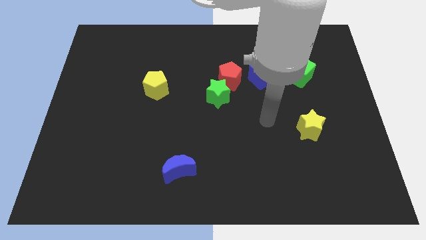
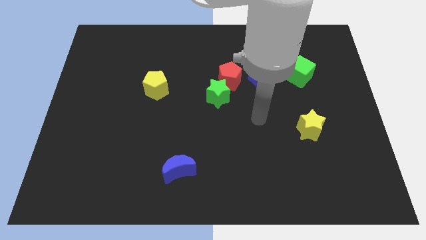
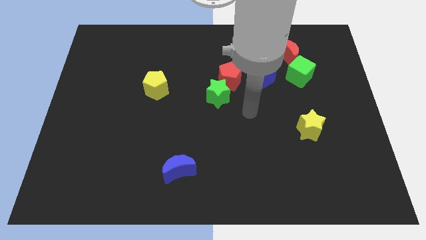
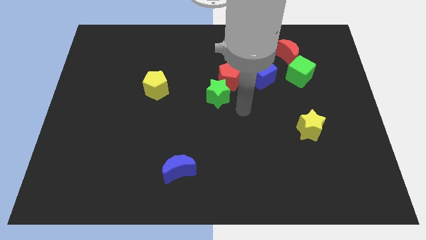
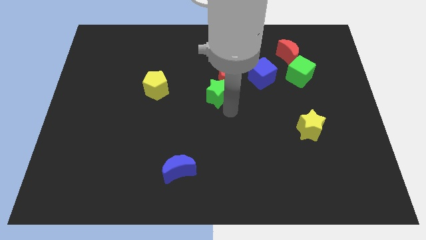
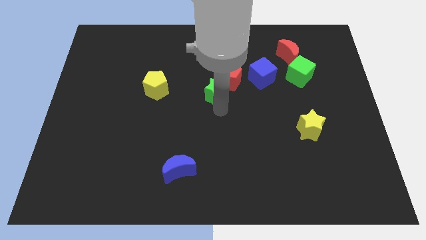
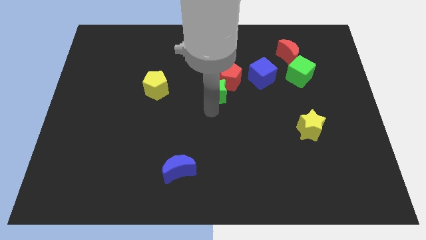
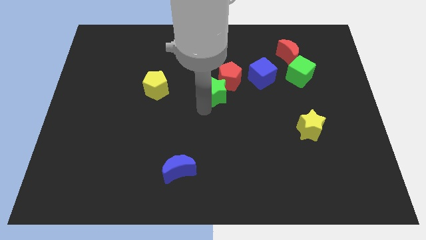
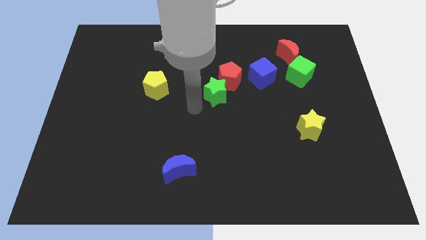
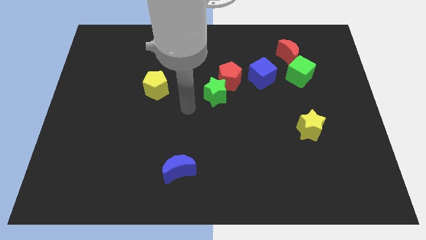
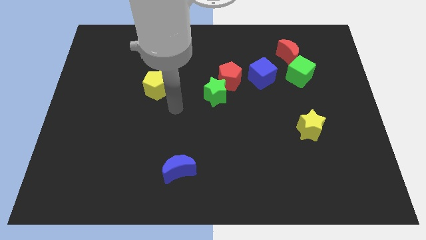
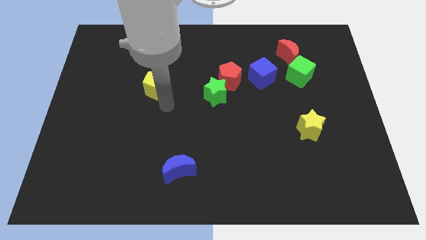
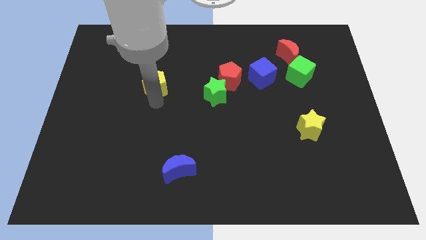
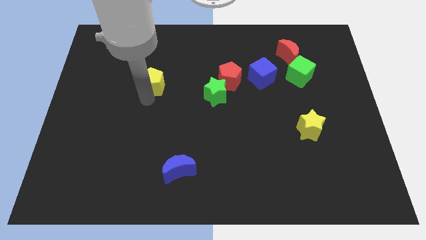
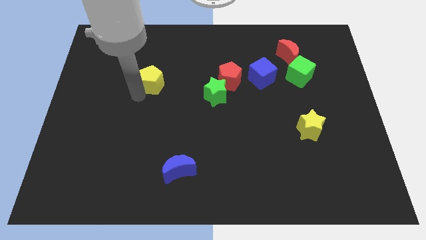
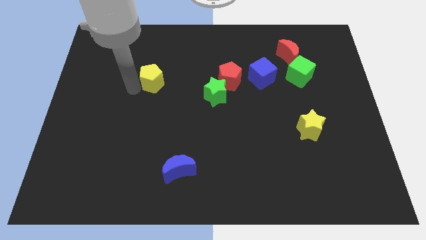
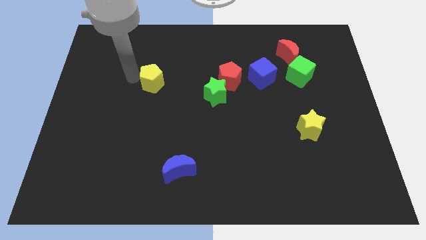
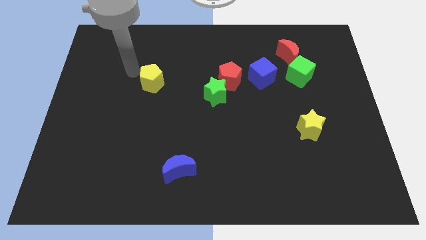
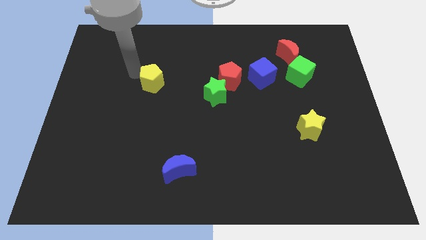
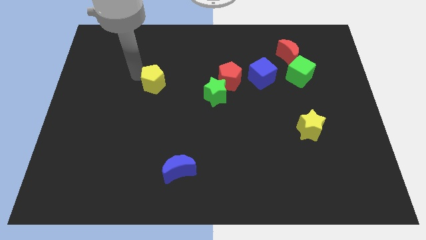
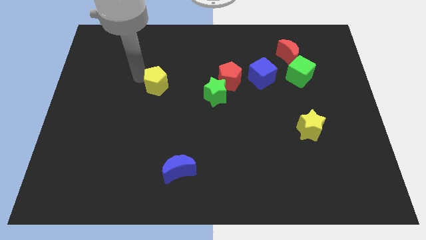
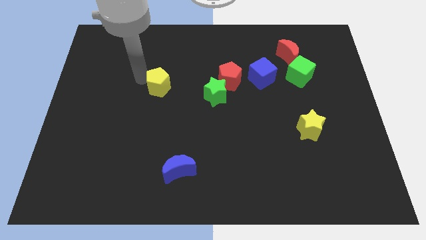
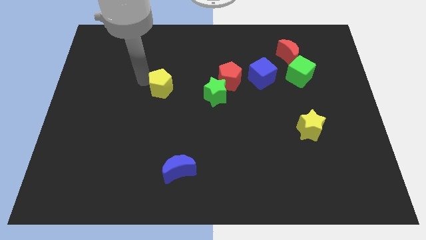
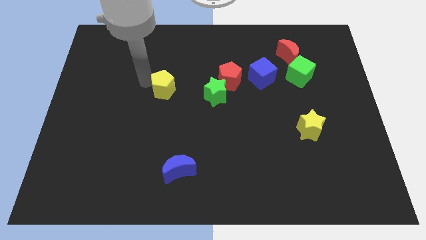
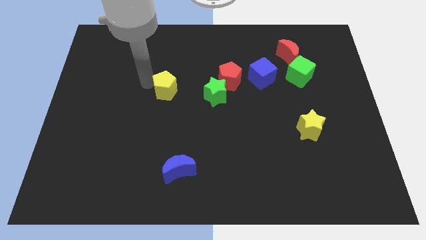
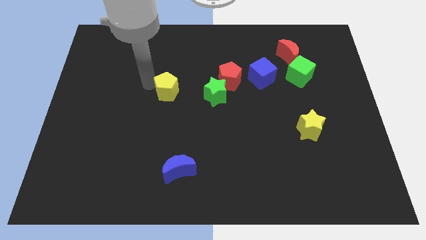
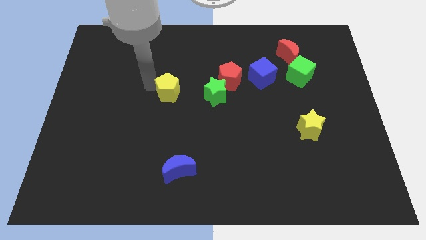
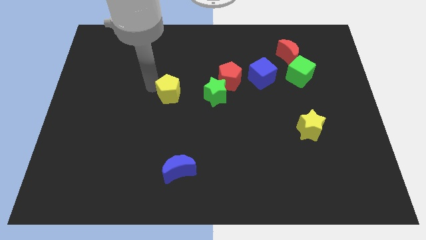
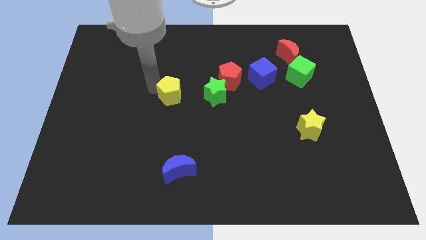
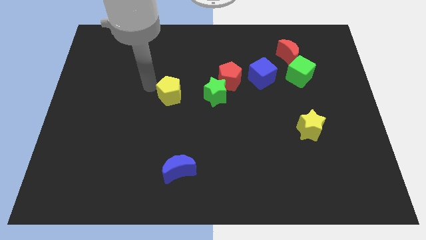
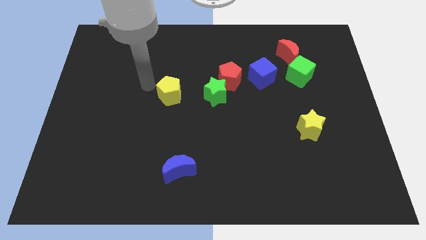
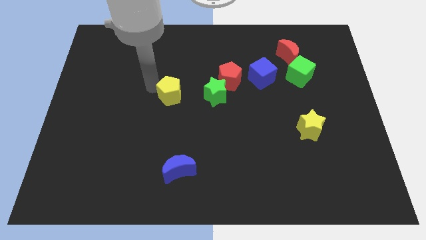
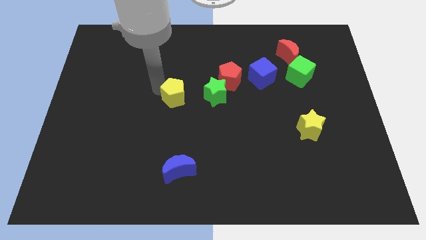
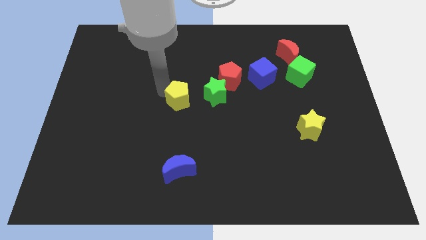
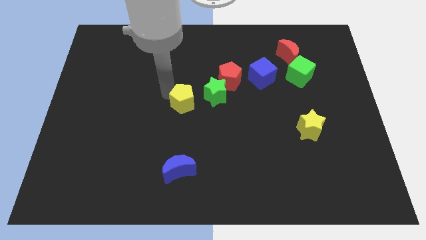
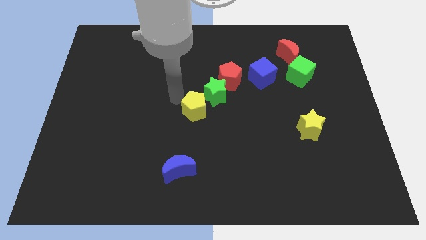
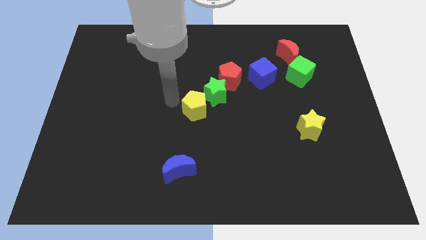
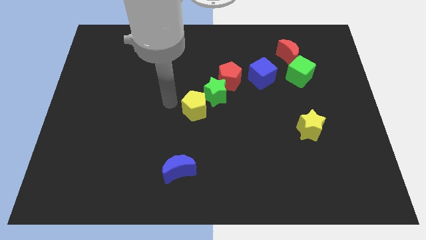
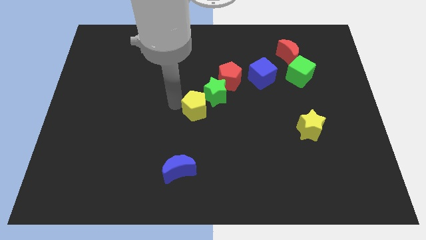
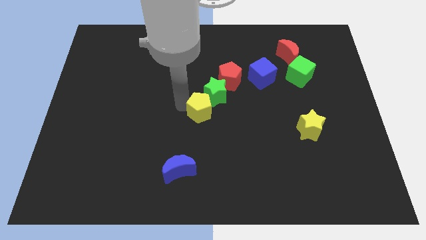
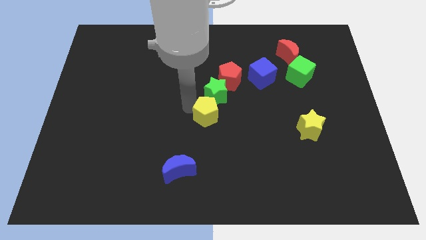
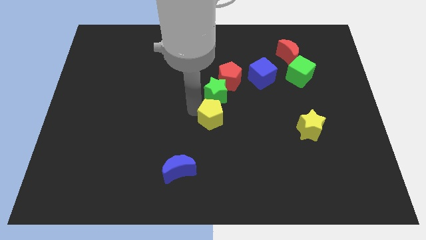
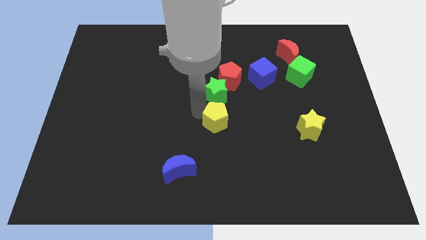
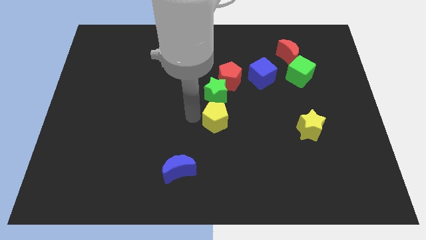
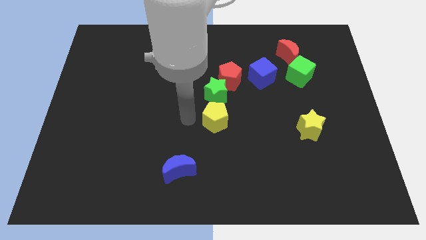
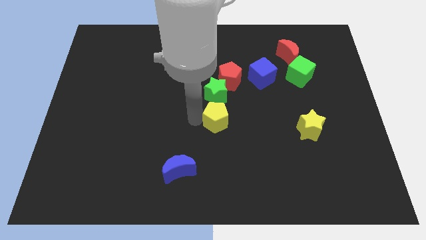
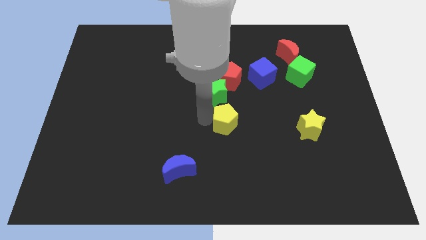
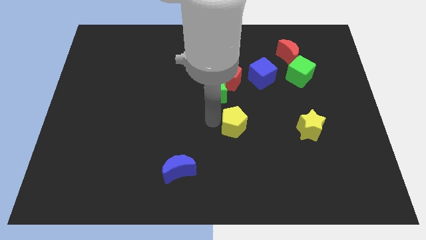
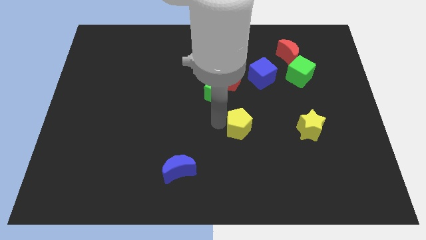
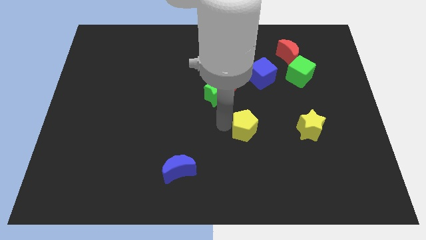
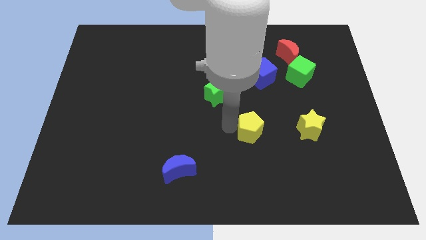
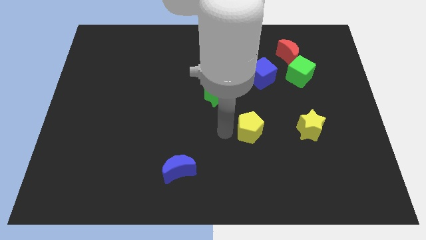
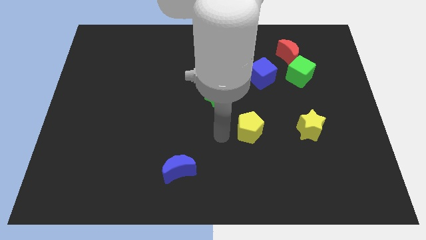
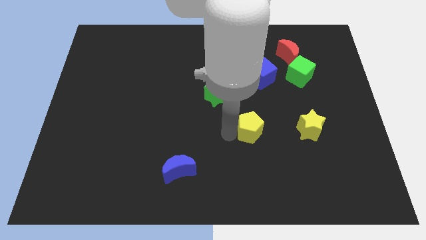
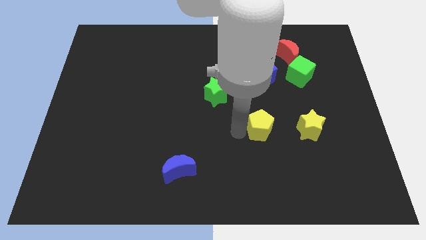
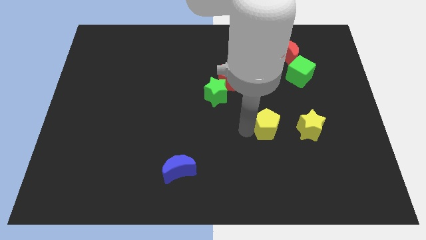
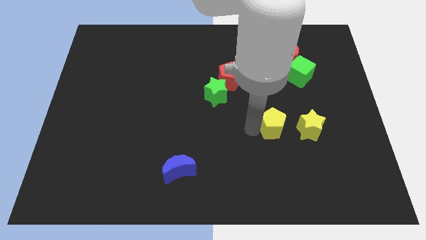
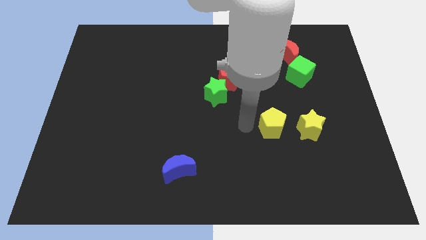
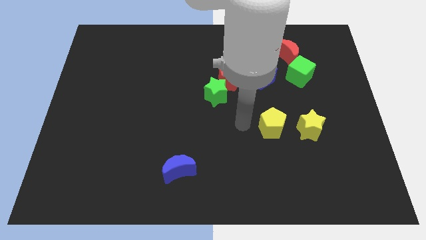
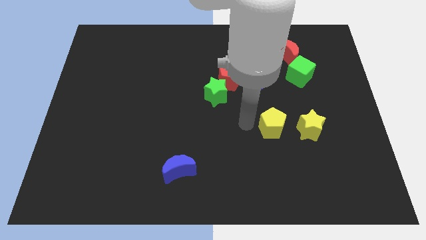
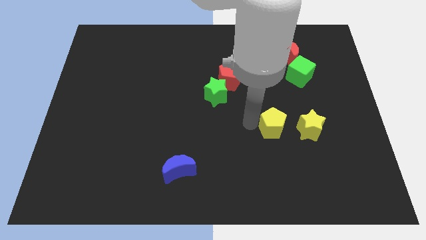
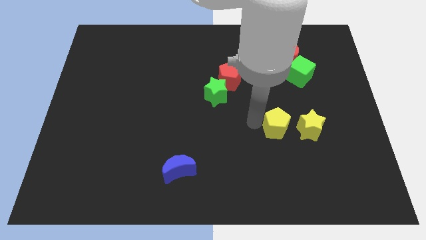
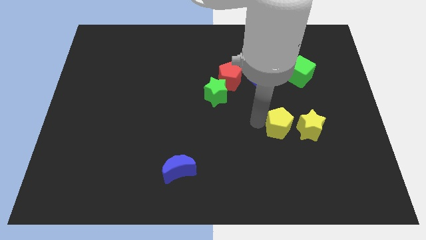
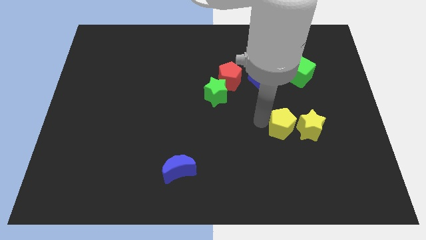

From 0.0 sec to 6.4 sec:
slide the yellow pentagon towards the yellow star

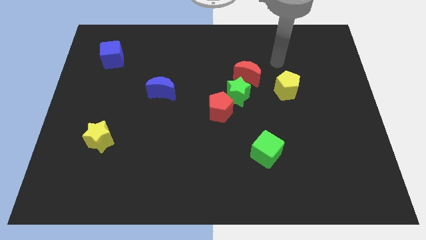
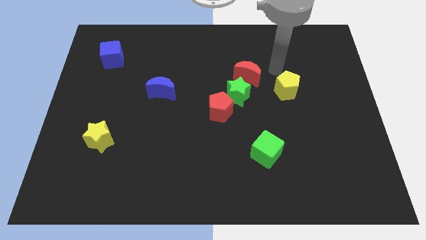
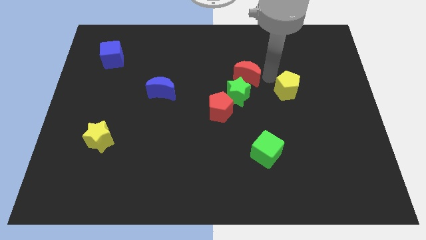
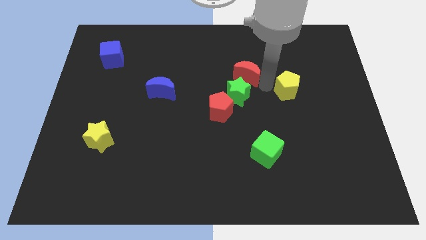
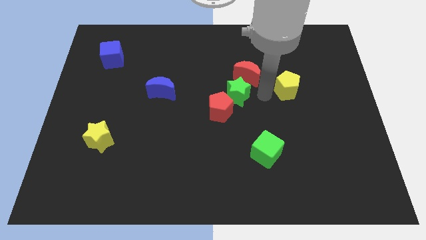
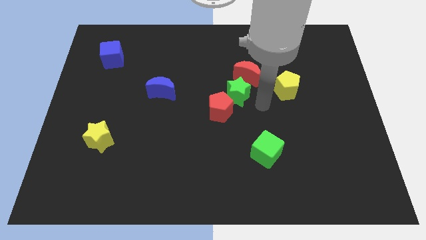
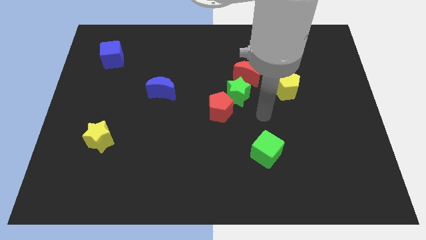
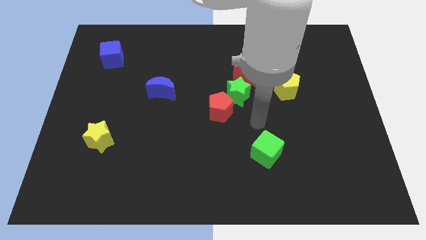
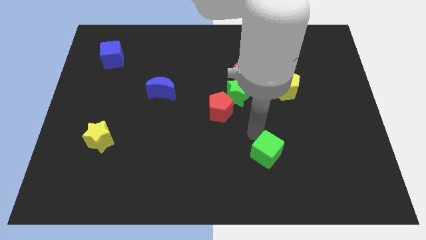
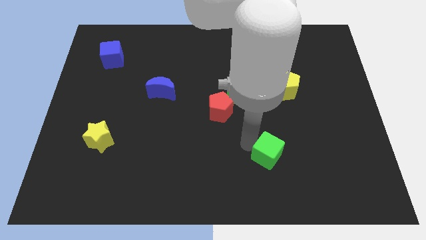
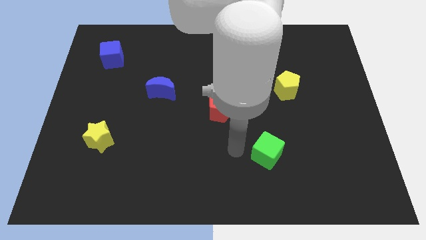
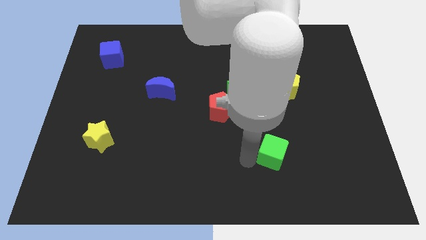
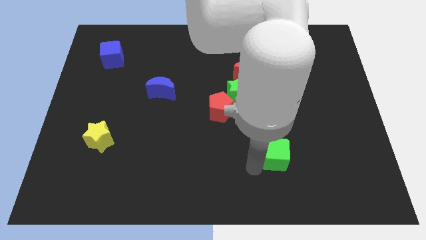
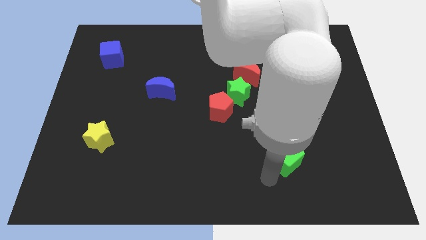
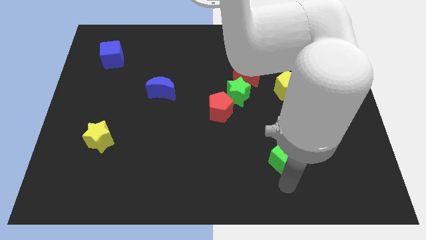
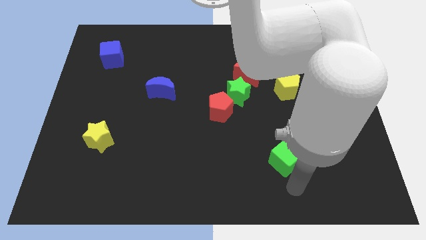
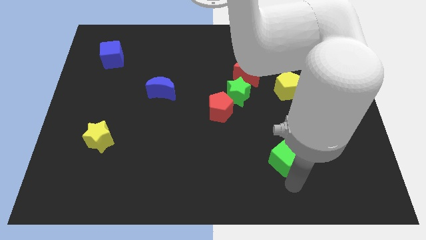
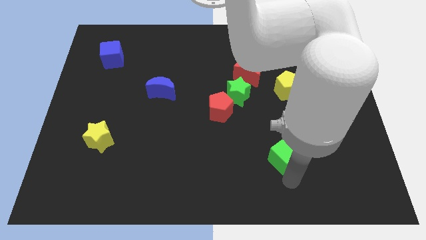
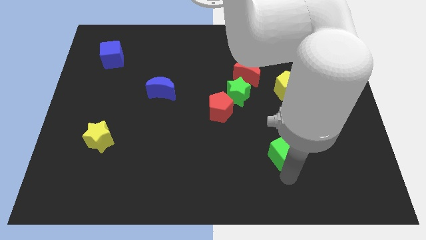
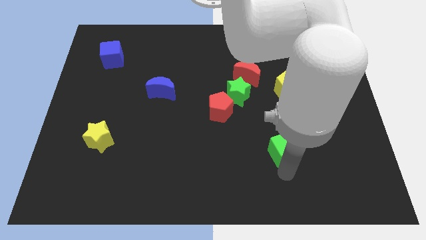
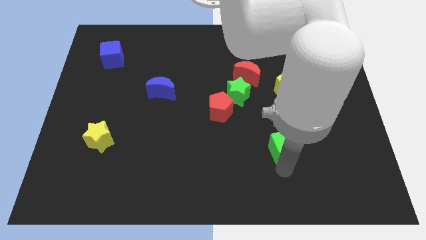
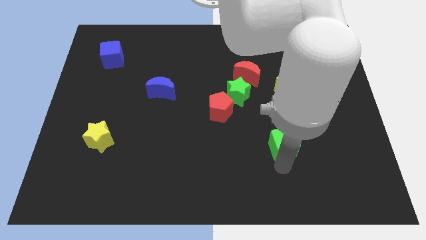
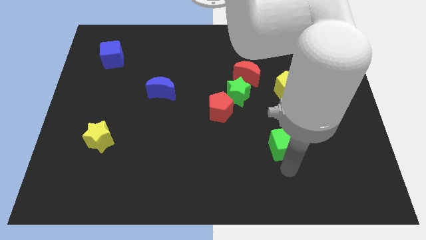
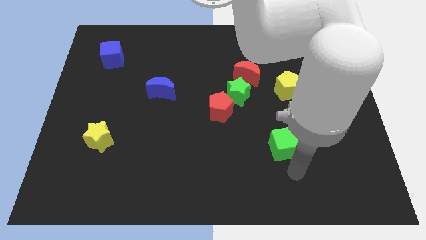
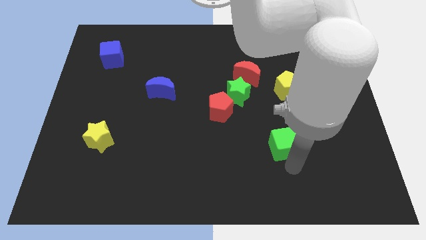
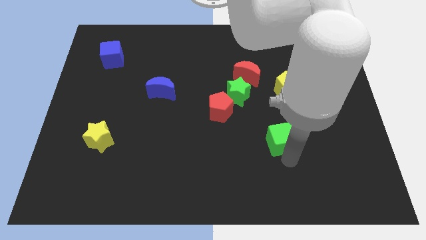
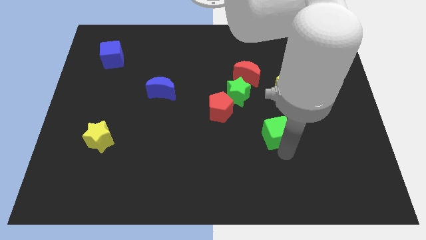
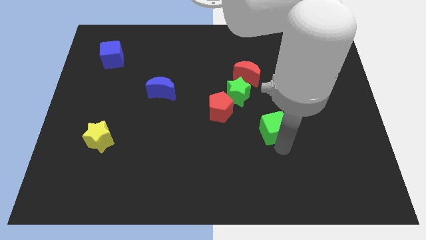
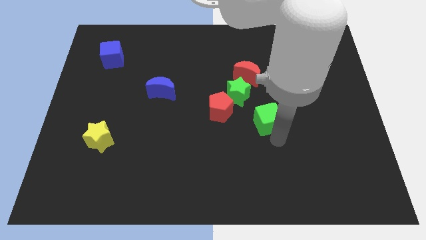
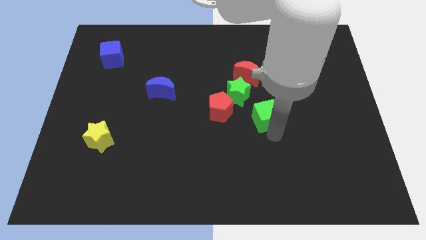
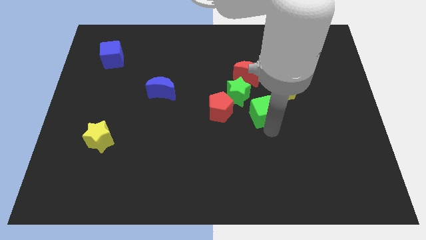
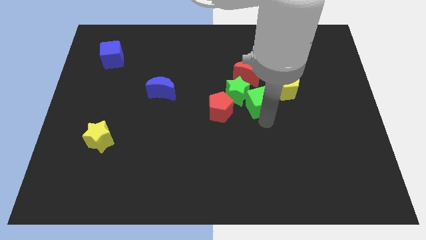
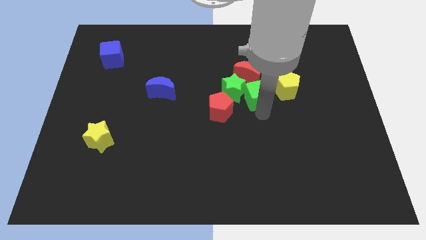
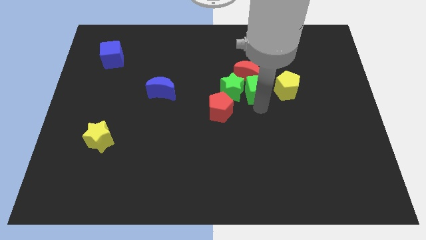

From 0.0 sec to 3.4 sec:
move the green cube next to the red moon
